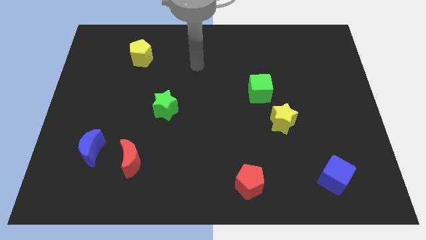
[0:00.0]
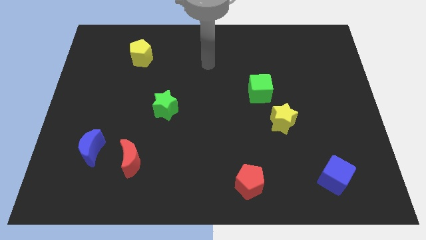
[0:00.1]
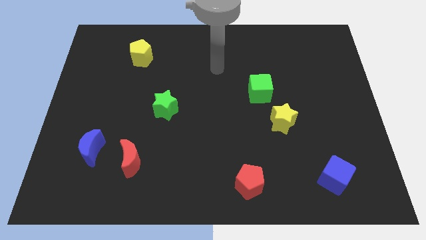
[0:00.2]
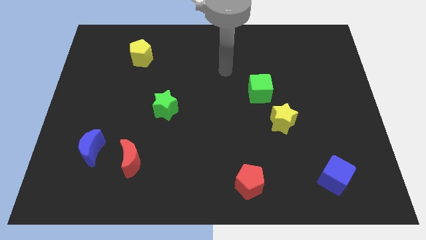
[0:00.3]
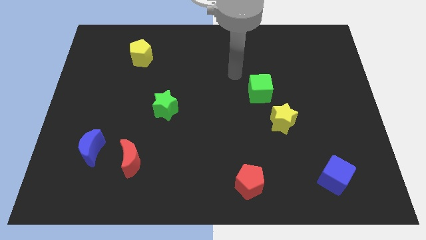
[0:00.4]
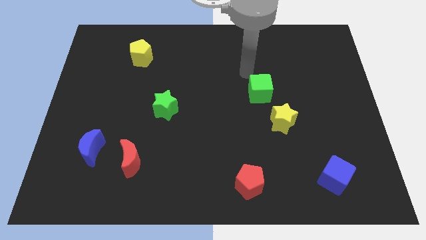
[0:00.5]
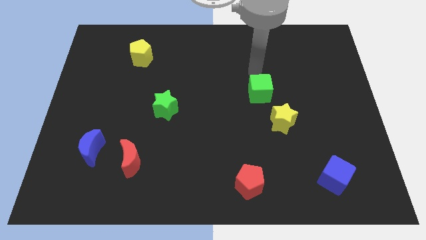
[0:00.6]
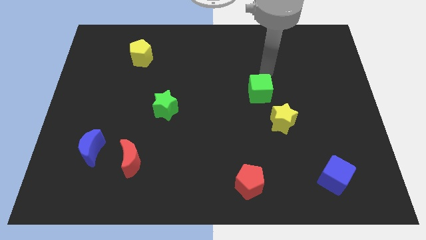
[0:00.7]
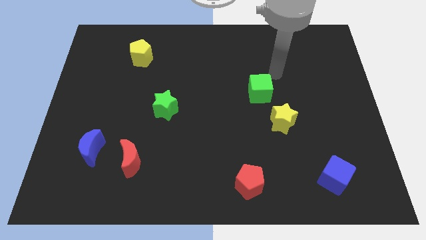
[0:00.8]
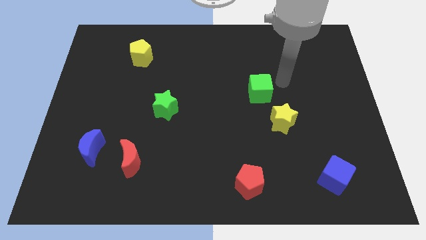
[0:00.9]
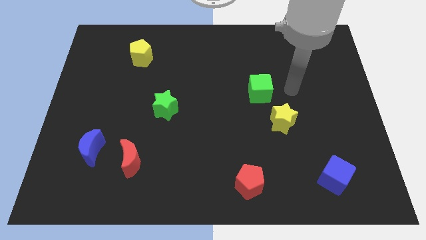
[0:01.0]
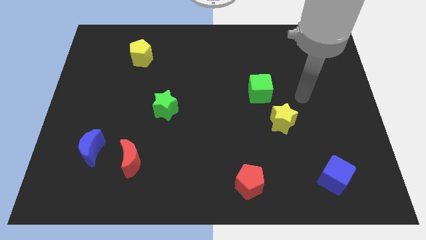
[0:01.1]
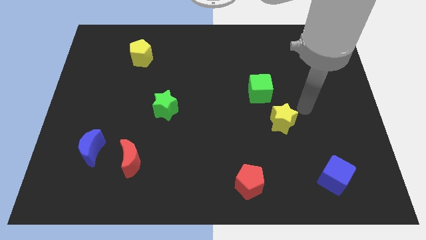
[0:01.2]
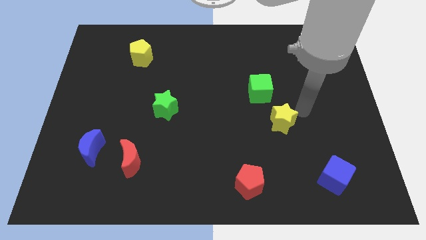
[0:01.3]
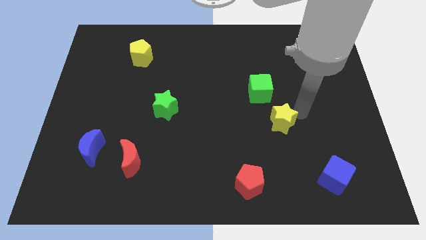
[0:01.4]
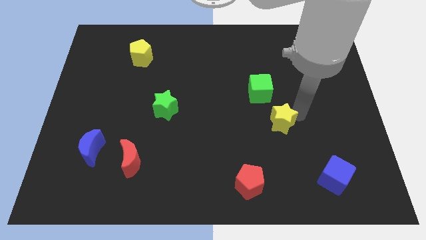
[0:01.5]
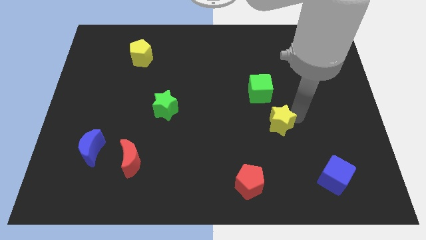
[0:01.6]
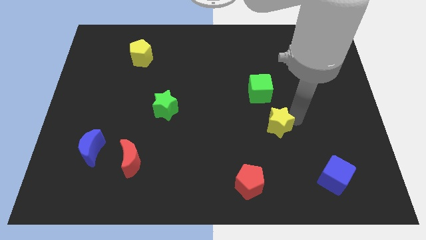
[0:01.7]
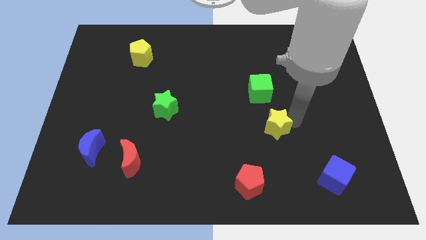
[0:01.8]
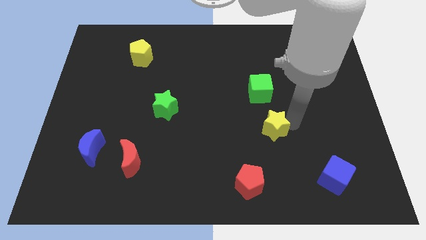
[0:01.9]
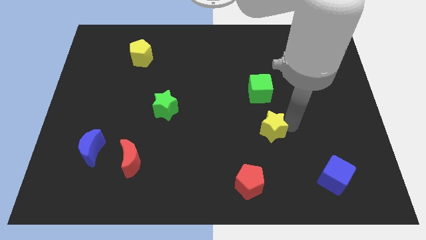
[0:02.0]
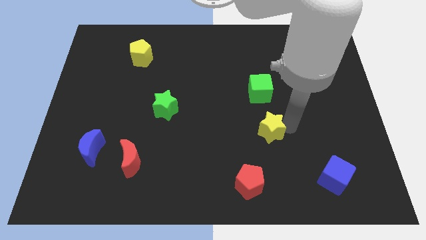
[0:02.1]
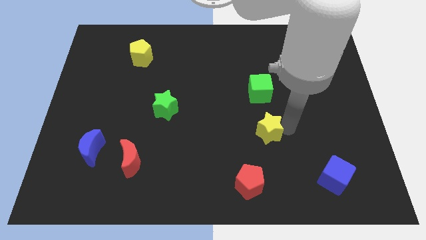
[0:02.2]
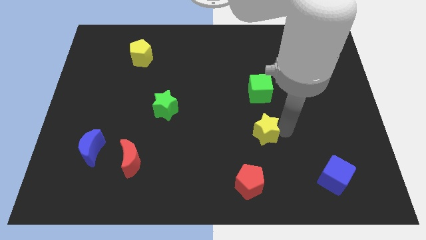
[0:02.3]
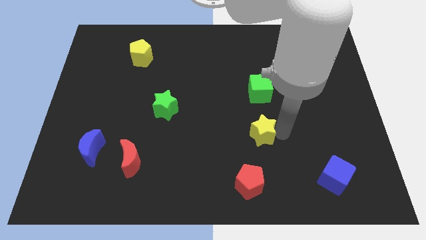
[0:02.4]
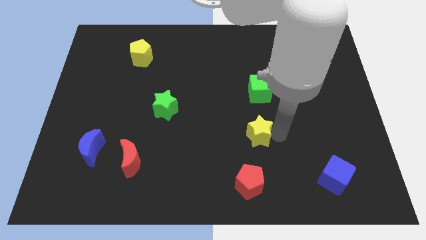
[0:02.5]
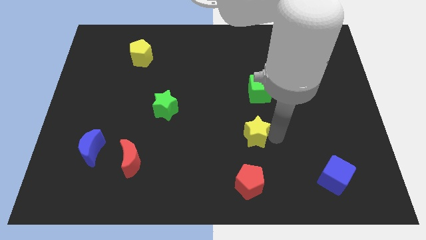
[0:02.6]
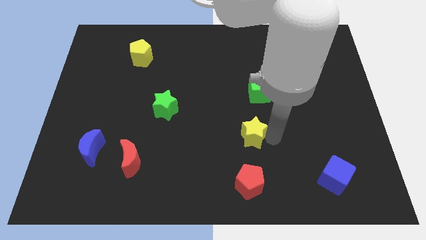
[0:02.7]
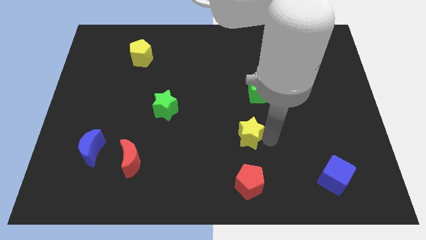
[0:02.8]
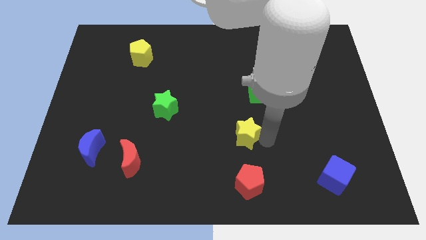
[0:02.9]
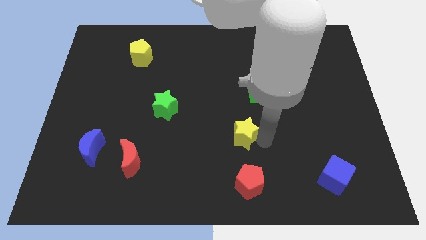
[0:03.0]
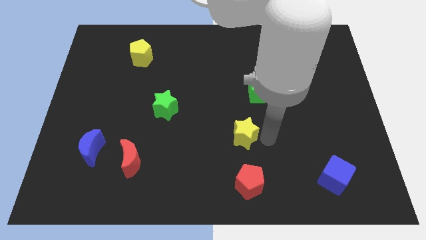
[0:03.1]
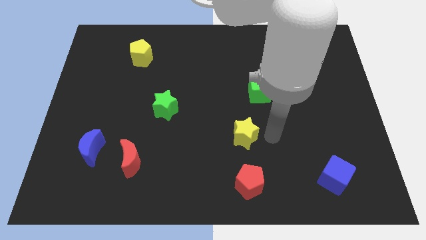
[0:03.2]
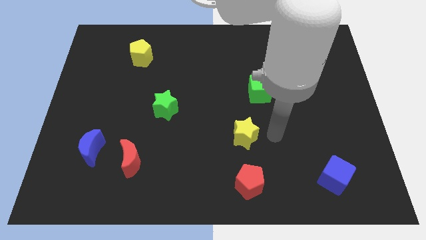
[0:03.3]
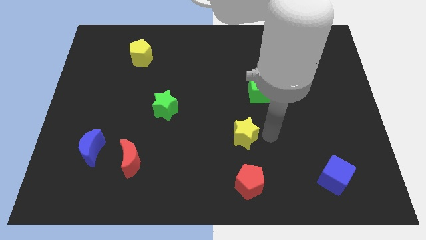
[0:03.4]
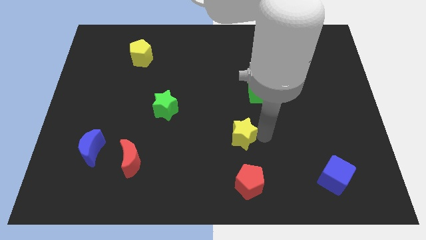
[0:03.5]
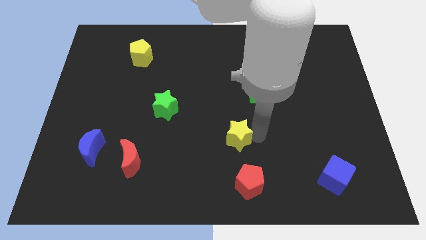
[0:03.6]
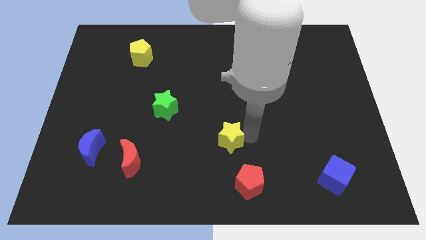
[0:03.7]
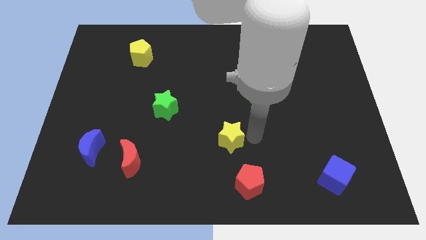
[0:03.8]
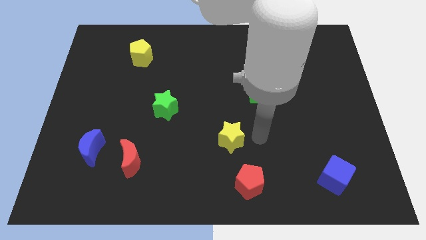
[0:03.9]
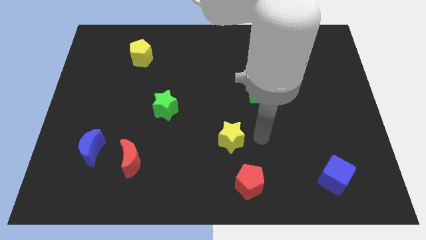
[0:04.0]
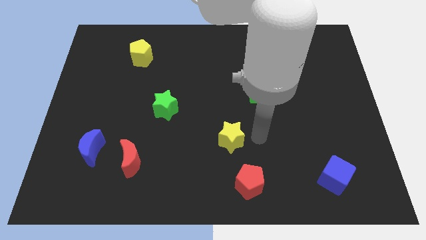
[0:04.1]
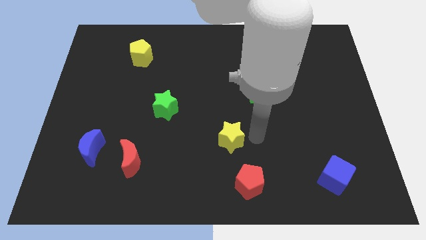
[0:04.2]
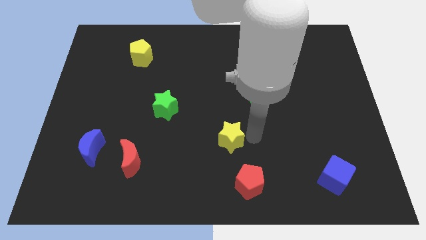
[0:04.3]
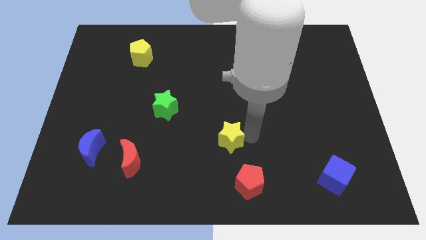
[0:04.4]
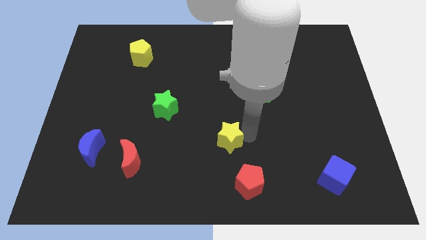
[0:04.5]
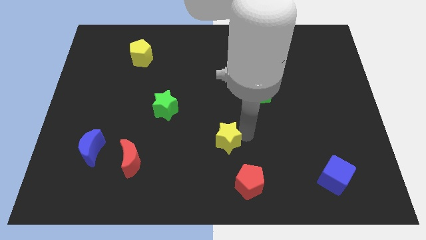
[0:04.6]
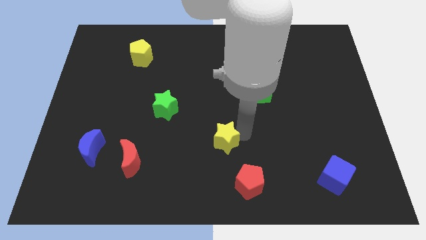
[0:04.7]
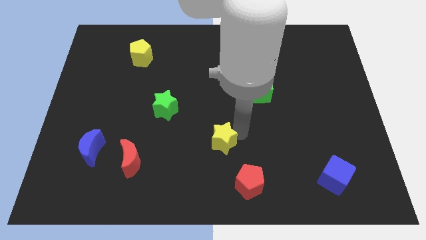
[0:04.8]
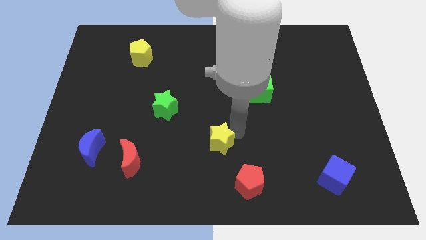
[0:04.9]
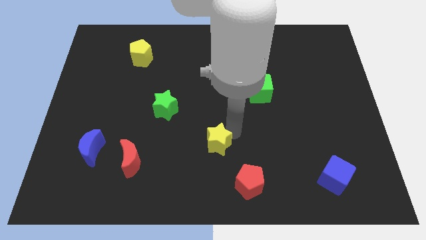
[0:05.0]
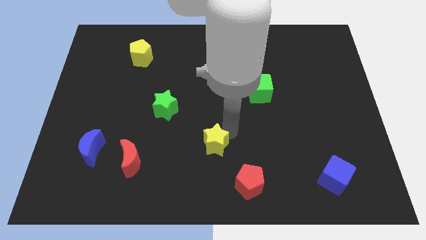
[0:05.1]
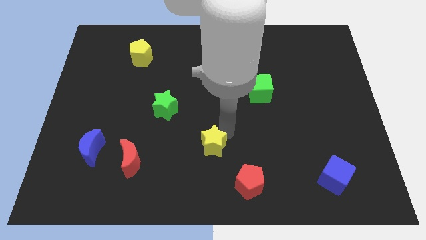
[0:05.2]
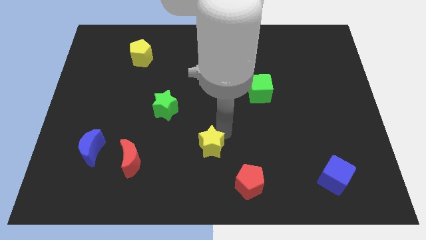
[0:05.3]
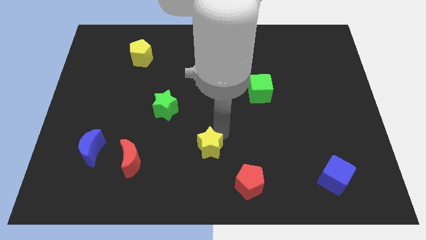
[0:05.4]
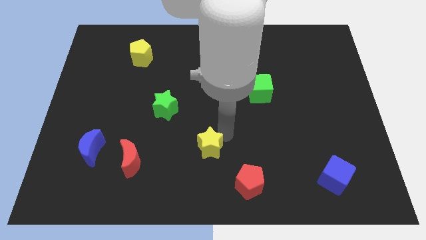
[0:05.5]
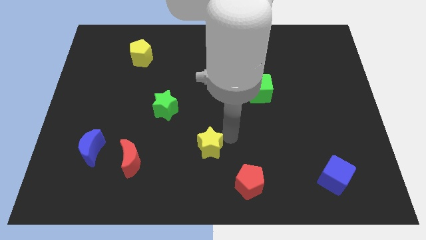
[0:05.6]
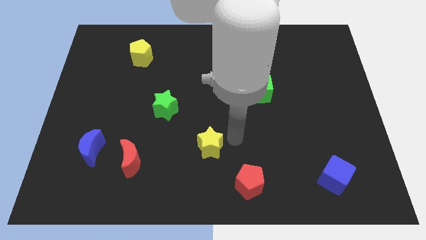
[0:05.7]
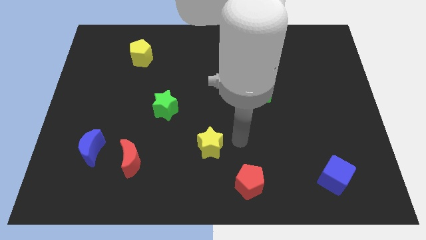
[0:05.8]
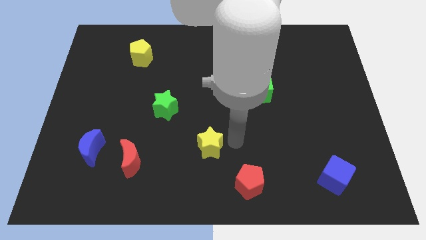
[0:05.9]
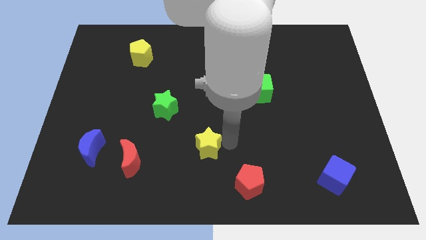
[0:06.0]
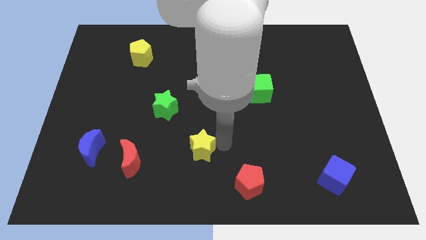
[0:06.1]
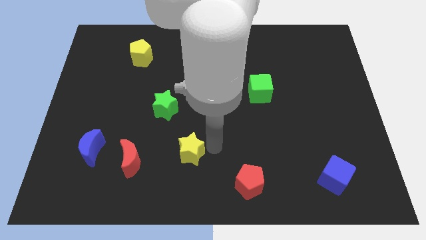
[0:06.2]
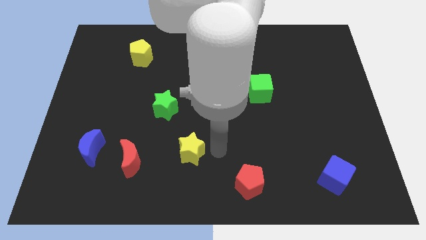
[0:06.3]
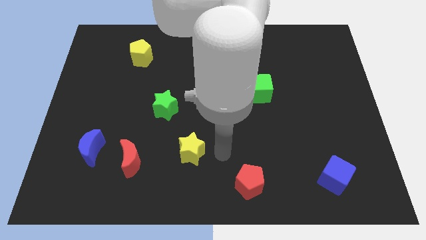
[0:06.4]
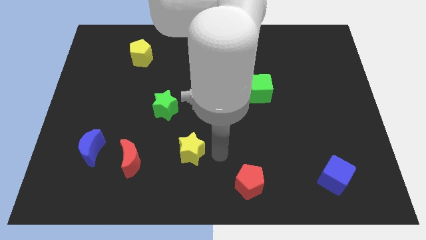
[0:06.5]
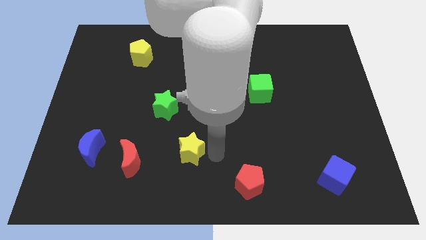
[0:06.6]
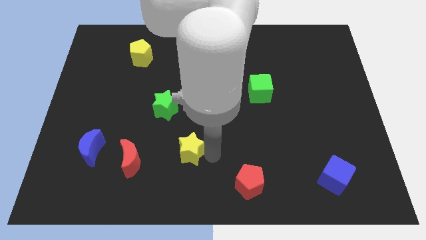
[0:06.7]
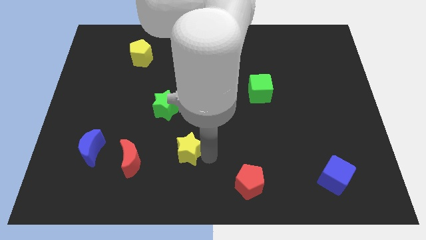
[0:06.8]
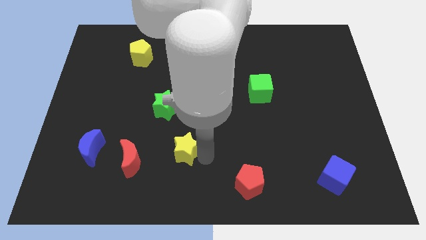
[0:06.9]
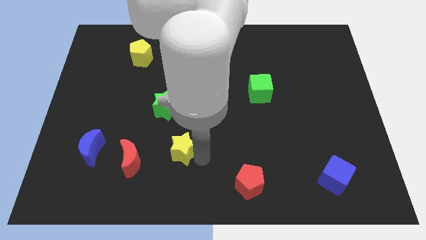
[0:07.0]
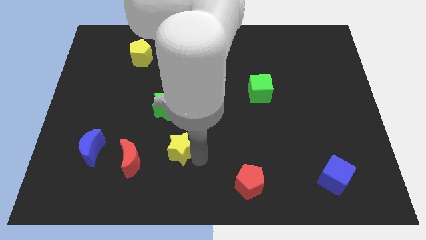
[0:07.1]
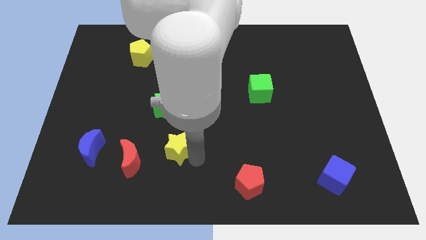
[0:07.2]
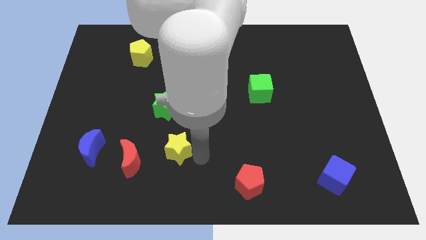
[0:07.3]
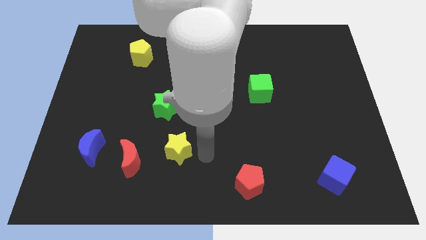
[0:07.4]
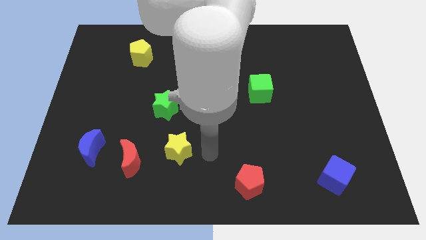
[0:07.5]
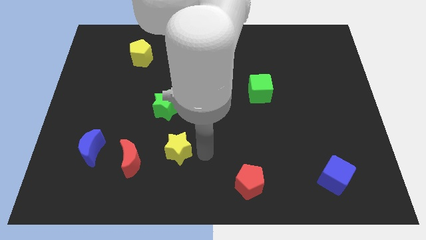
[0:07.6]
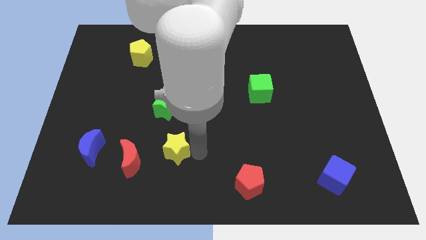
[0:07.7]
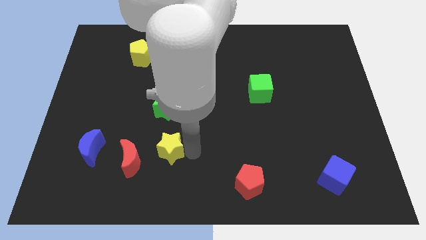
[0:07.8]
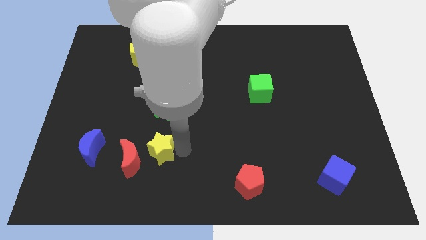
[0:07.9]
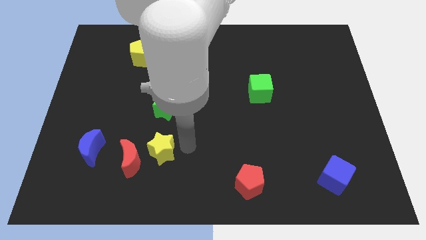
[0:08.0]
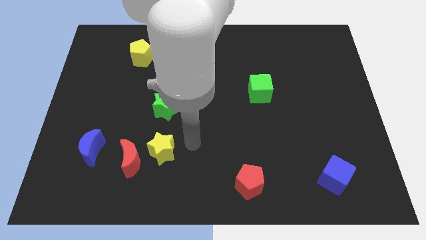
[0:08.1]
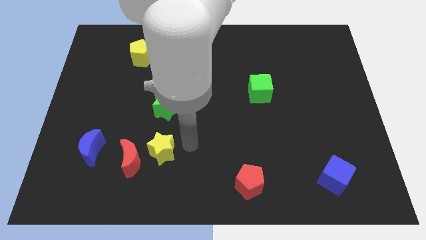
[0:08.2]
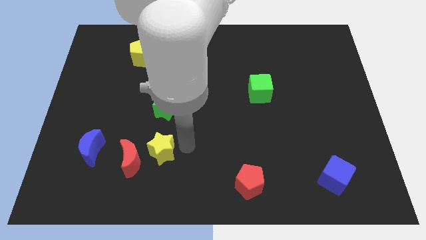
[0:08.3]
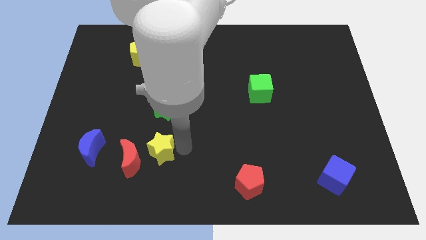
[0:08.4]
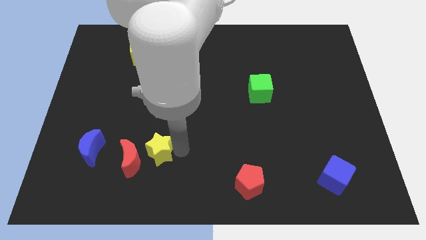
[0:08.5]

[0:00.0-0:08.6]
put the yellow star close to the red moon
